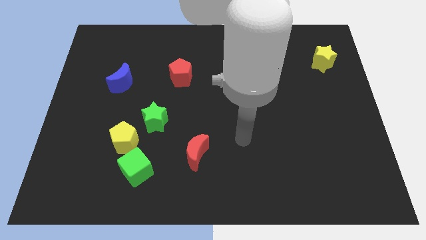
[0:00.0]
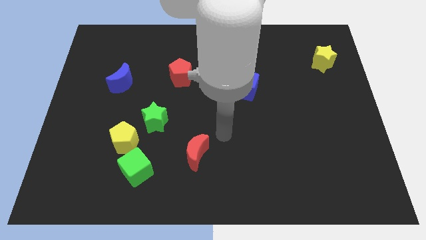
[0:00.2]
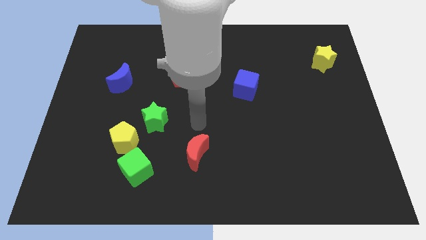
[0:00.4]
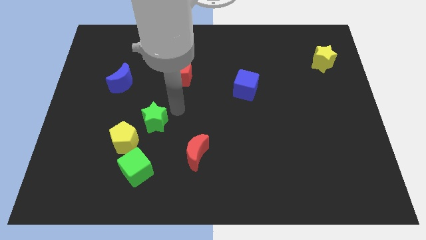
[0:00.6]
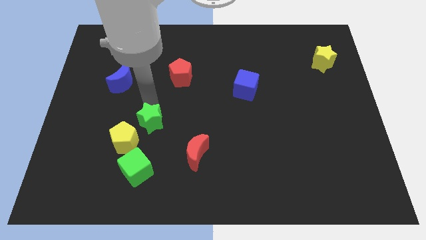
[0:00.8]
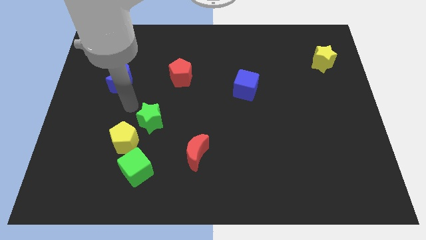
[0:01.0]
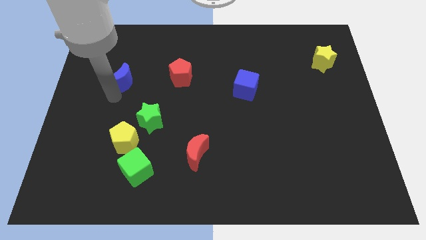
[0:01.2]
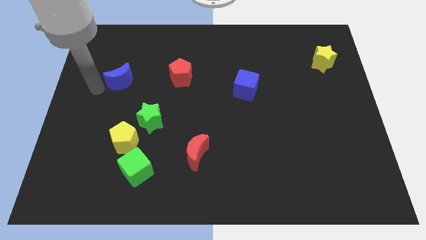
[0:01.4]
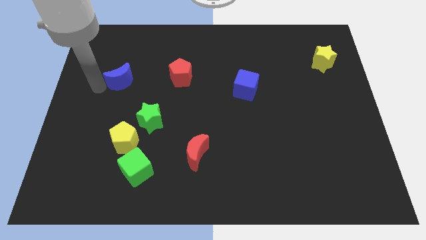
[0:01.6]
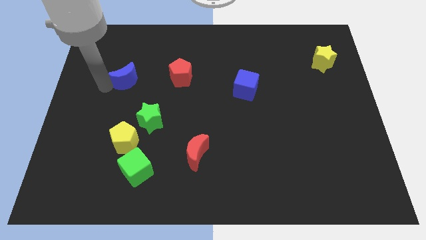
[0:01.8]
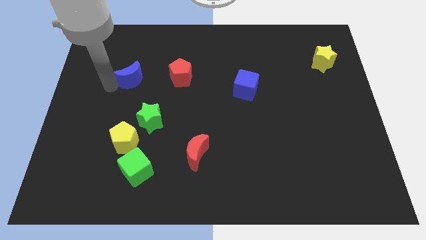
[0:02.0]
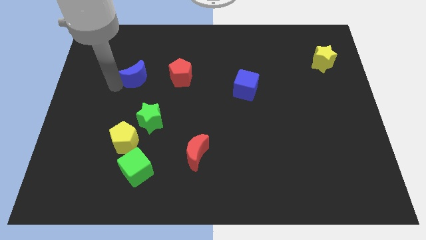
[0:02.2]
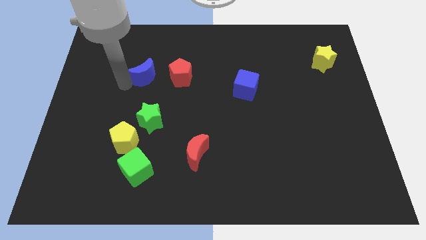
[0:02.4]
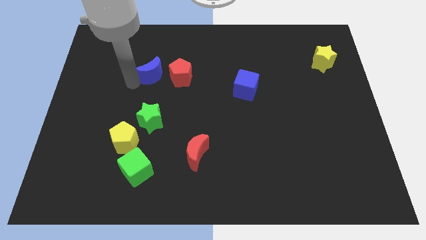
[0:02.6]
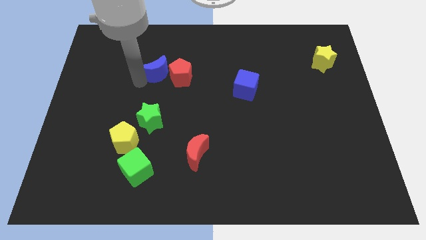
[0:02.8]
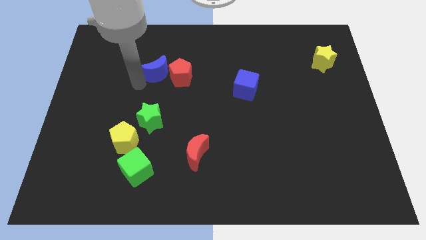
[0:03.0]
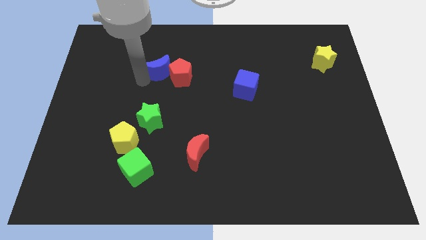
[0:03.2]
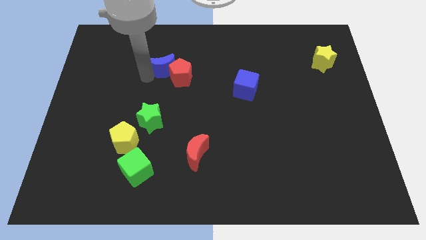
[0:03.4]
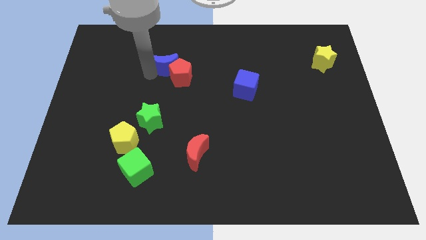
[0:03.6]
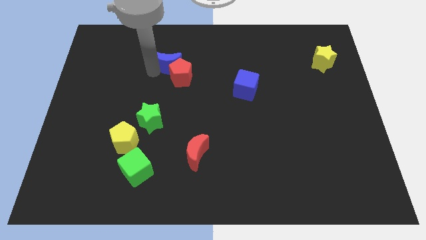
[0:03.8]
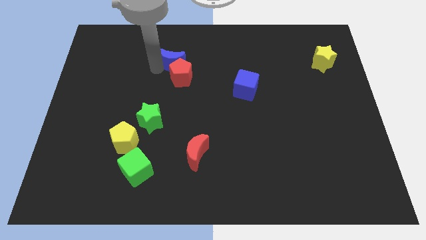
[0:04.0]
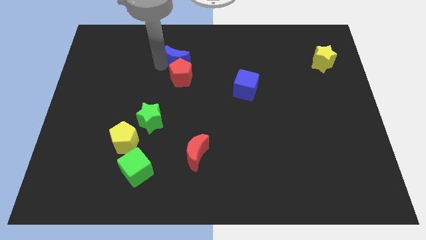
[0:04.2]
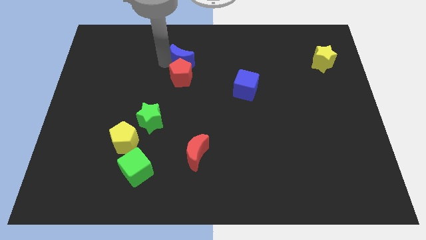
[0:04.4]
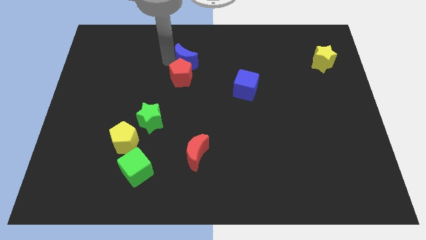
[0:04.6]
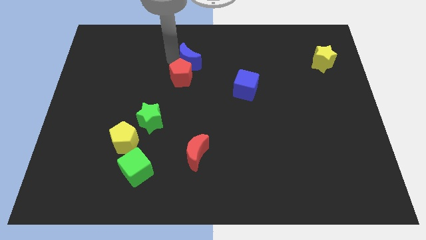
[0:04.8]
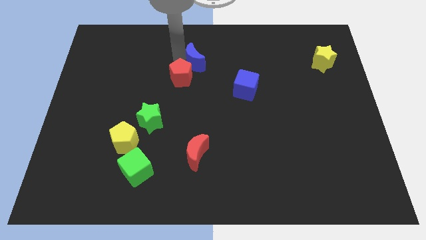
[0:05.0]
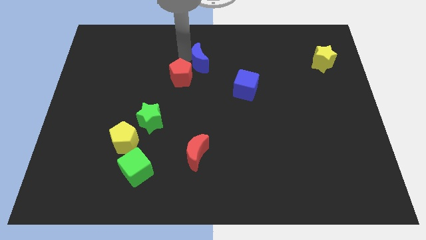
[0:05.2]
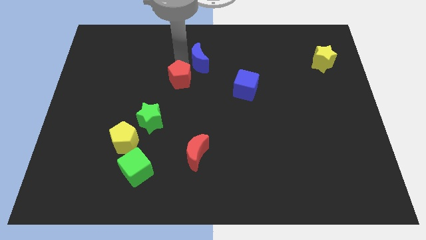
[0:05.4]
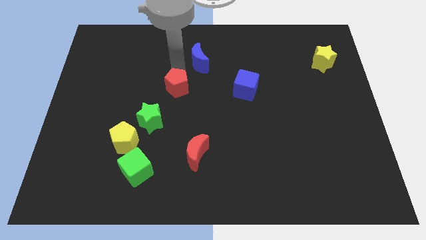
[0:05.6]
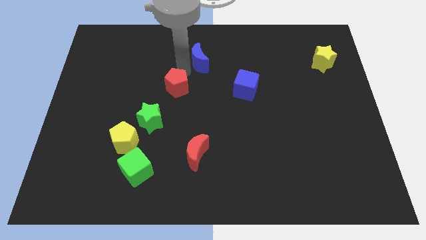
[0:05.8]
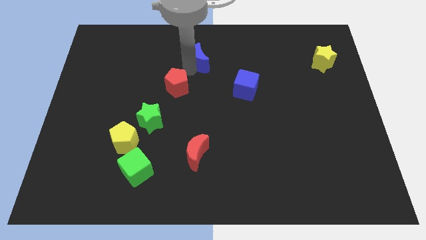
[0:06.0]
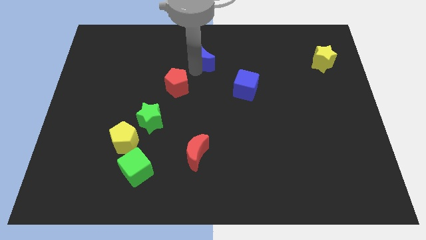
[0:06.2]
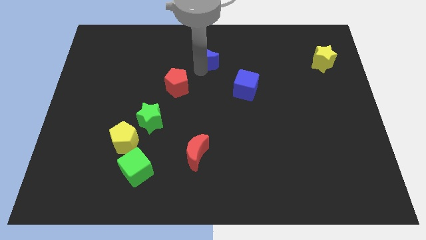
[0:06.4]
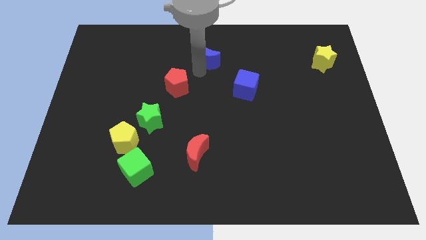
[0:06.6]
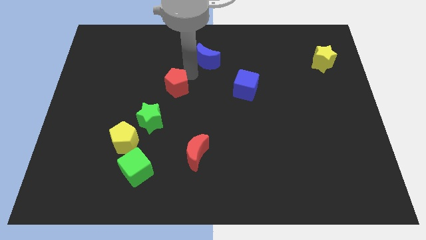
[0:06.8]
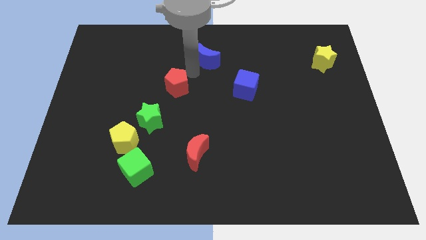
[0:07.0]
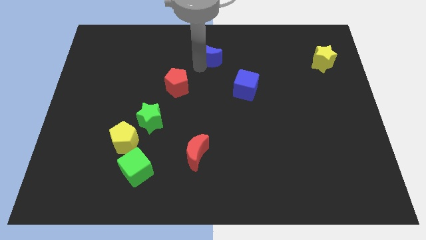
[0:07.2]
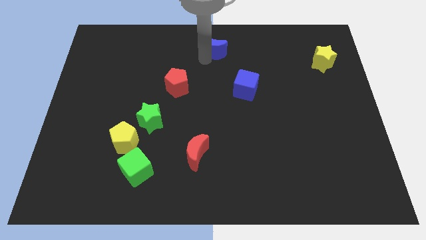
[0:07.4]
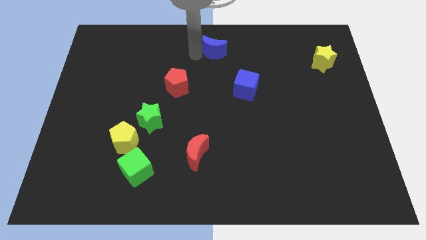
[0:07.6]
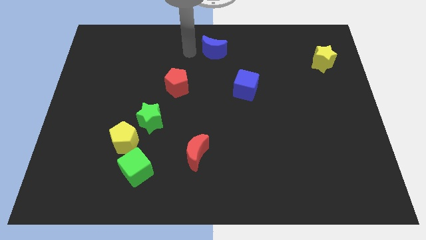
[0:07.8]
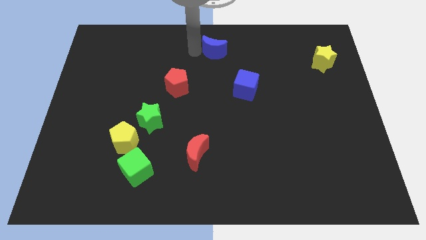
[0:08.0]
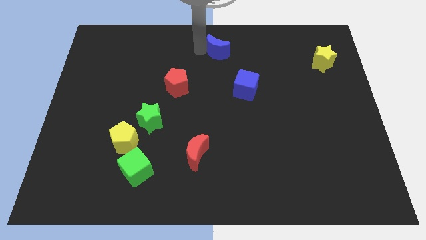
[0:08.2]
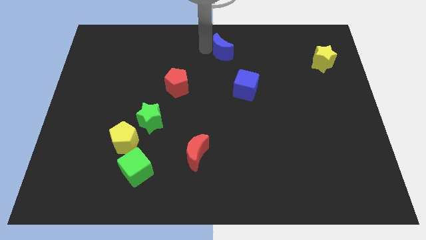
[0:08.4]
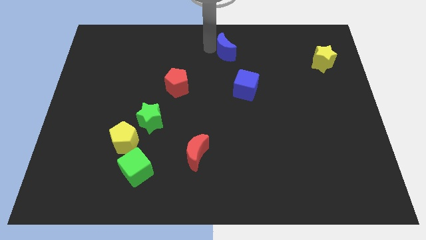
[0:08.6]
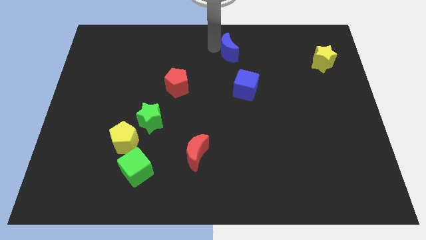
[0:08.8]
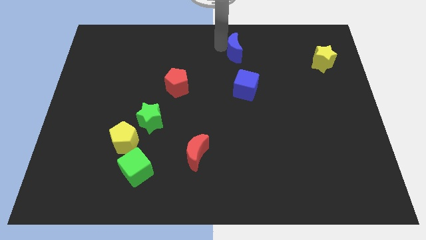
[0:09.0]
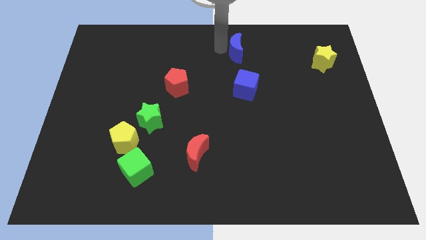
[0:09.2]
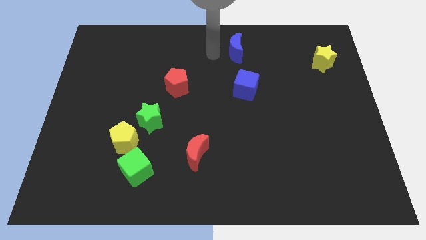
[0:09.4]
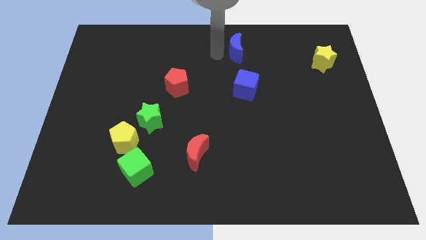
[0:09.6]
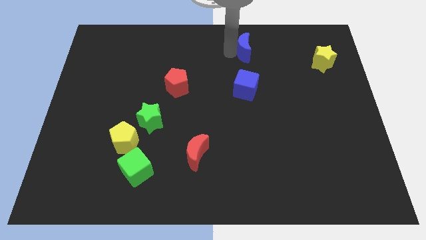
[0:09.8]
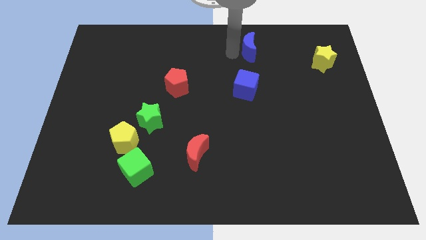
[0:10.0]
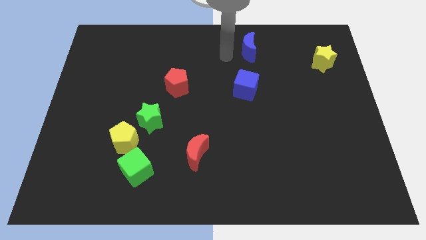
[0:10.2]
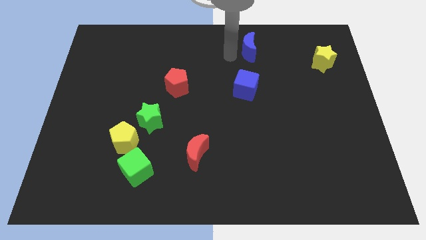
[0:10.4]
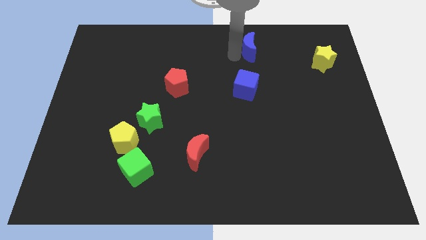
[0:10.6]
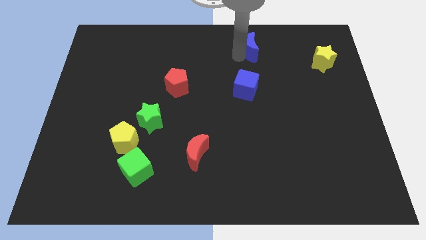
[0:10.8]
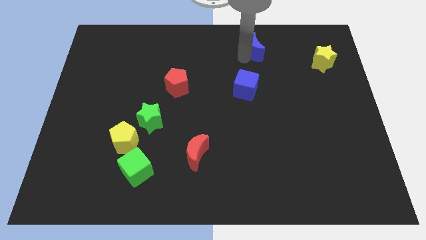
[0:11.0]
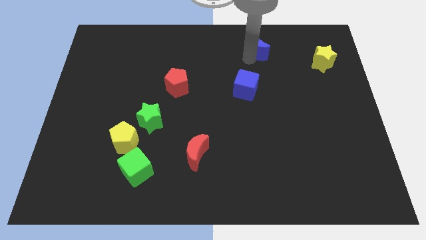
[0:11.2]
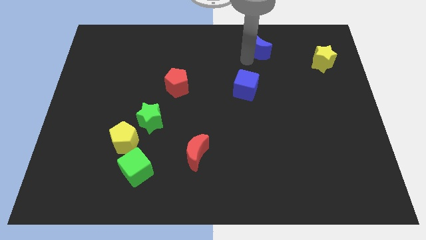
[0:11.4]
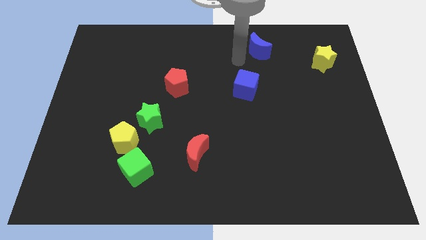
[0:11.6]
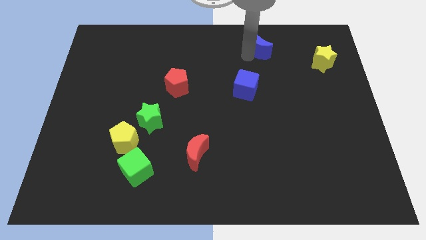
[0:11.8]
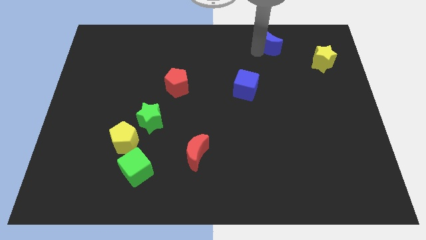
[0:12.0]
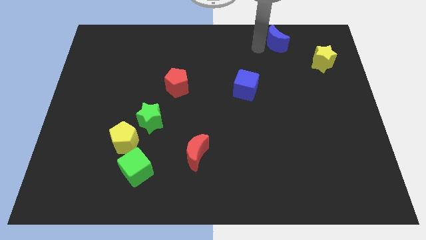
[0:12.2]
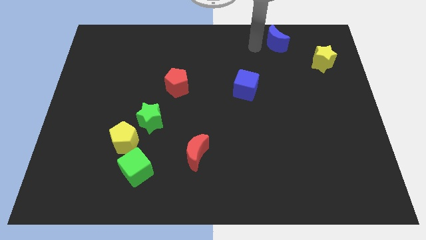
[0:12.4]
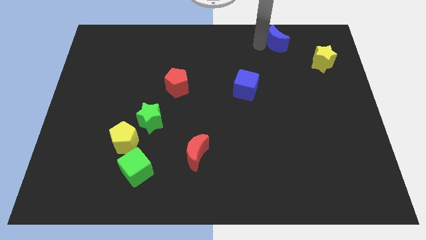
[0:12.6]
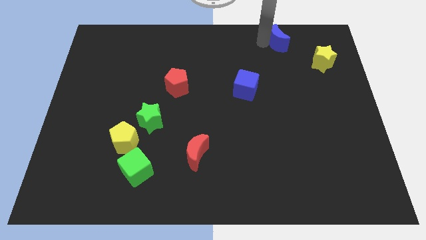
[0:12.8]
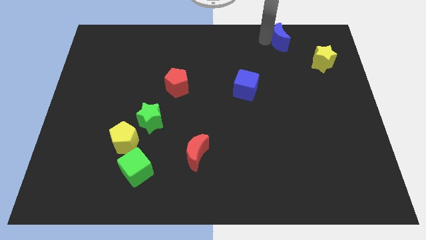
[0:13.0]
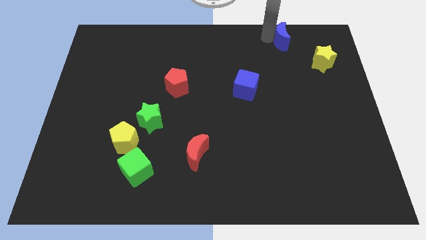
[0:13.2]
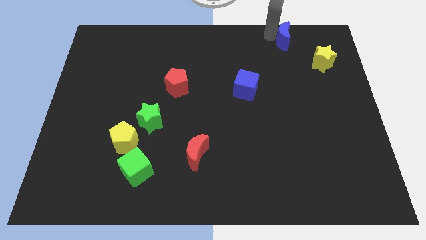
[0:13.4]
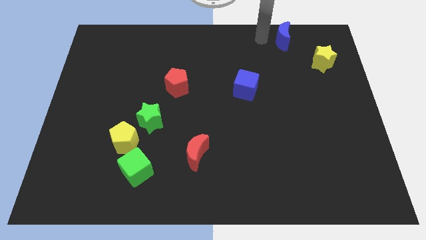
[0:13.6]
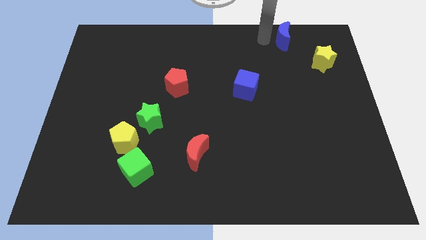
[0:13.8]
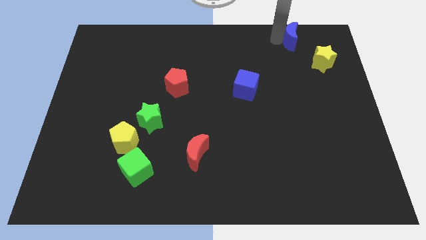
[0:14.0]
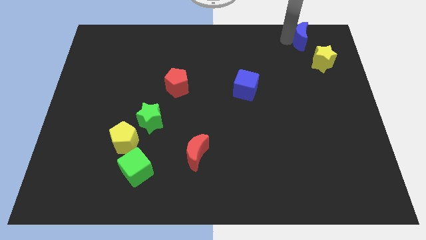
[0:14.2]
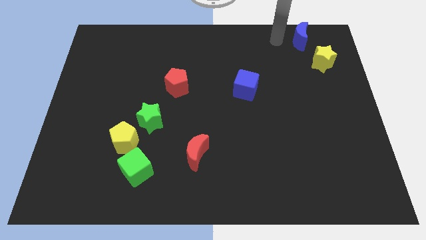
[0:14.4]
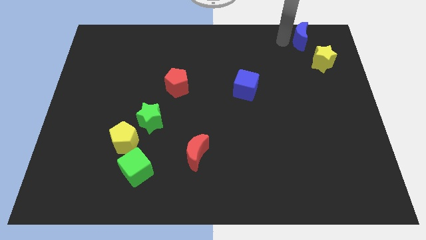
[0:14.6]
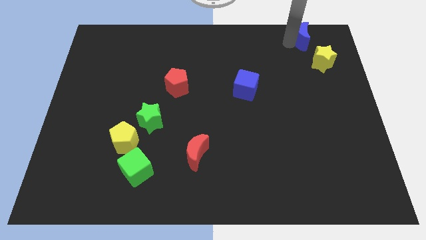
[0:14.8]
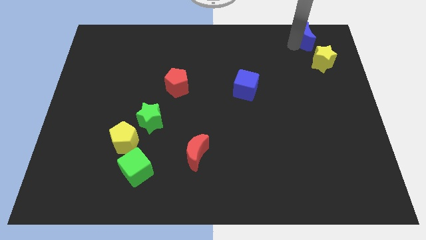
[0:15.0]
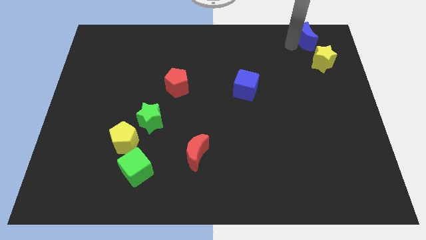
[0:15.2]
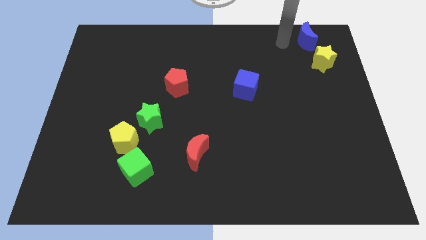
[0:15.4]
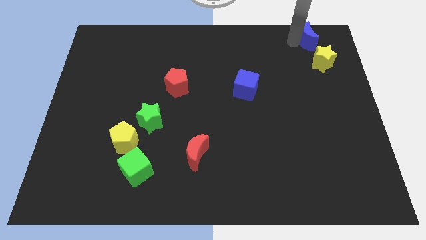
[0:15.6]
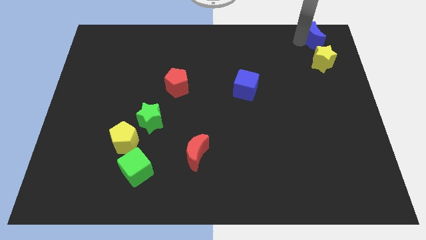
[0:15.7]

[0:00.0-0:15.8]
slide the blue moon to the top right
